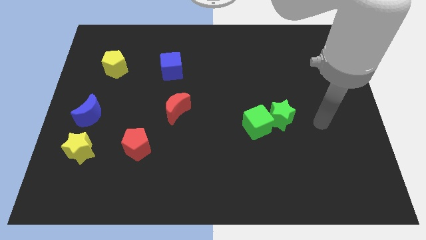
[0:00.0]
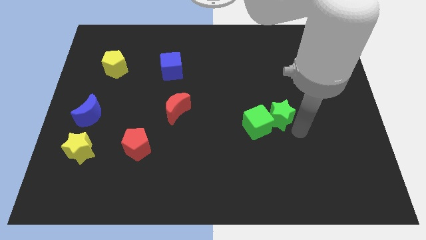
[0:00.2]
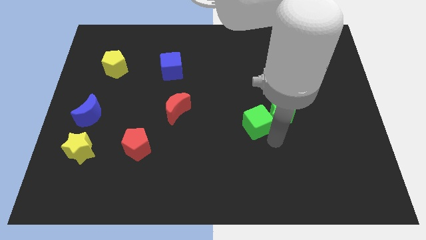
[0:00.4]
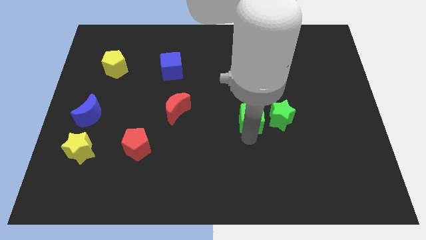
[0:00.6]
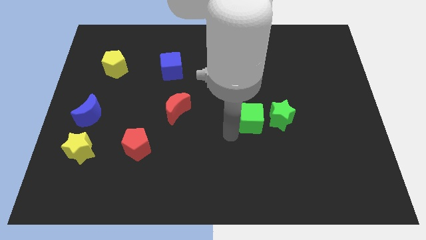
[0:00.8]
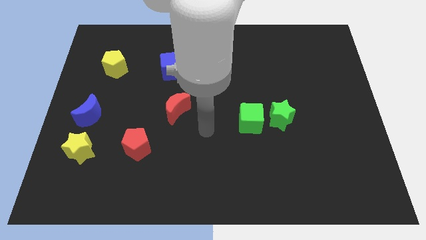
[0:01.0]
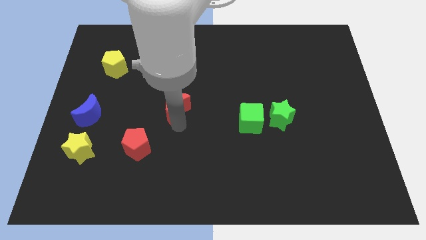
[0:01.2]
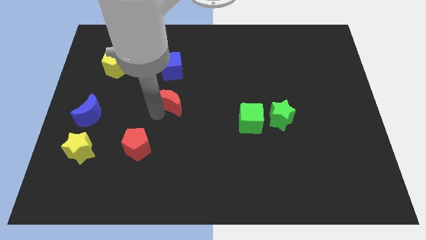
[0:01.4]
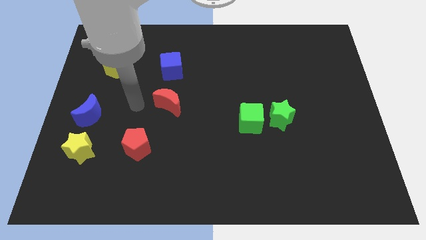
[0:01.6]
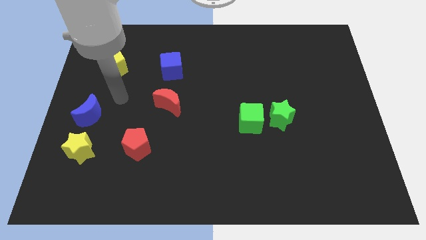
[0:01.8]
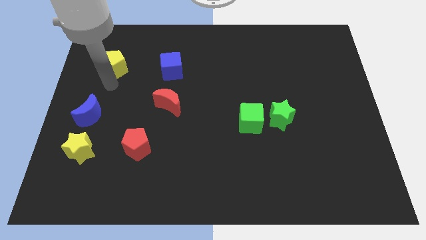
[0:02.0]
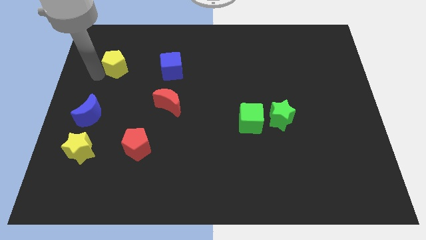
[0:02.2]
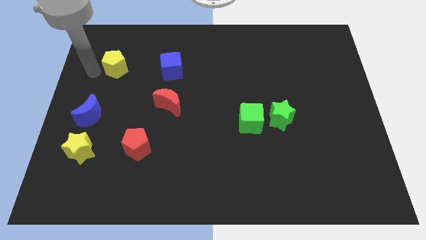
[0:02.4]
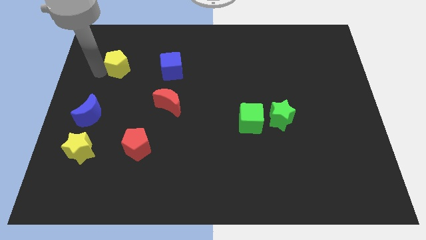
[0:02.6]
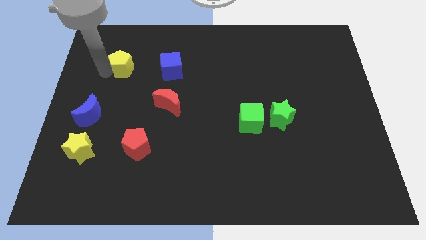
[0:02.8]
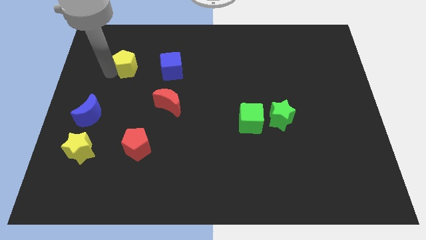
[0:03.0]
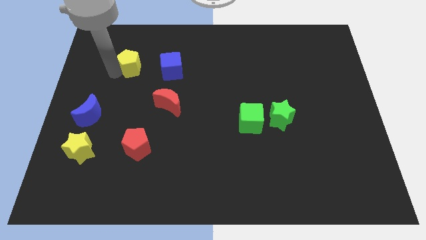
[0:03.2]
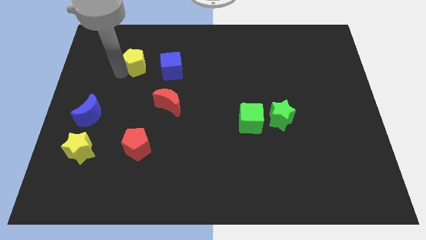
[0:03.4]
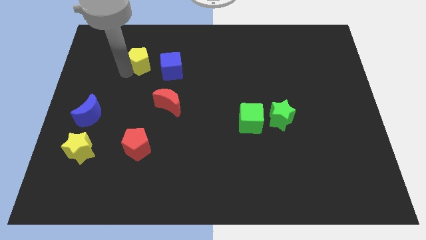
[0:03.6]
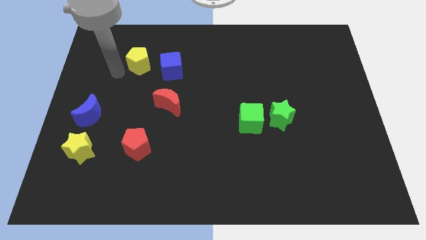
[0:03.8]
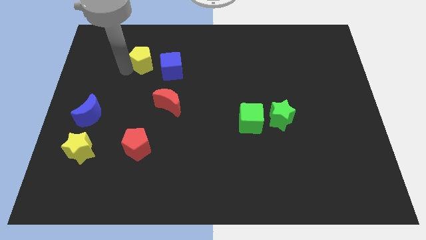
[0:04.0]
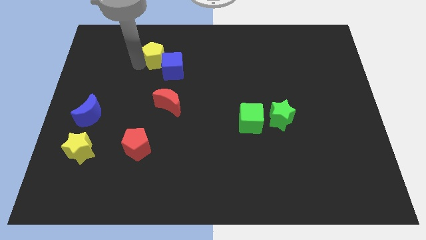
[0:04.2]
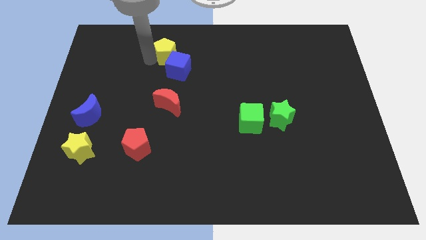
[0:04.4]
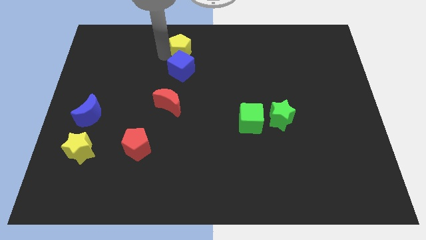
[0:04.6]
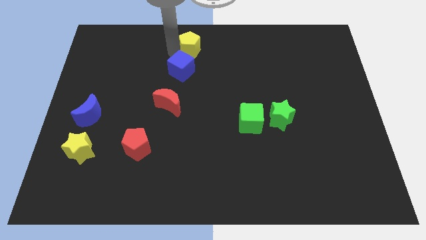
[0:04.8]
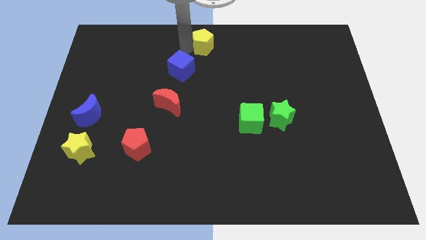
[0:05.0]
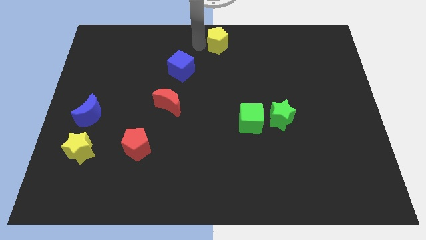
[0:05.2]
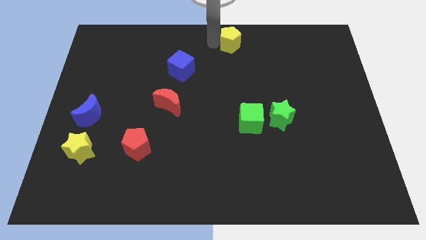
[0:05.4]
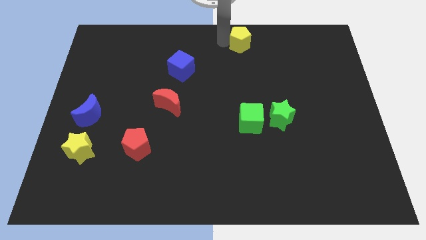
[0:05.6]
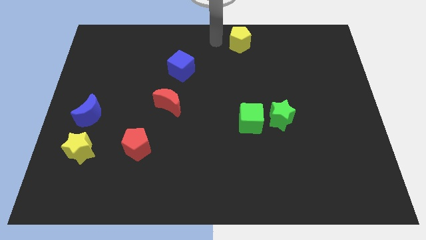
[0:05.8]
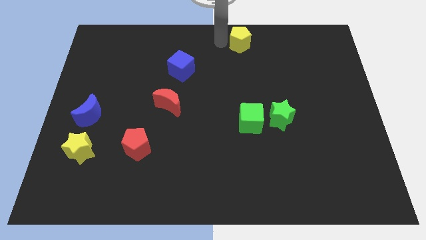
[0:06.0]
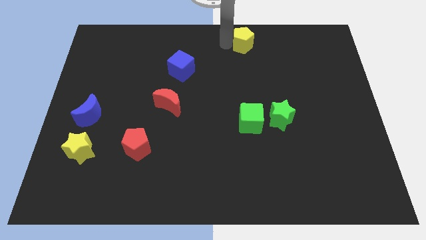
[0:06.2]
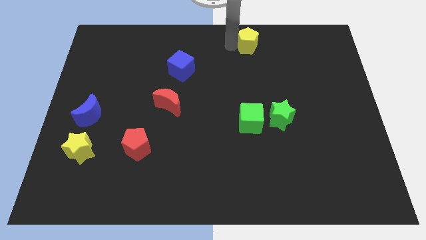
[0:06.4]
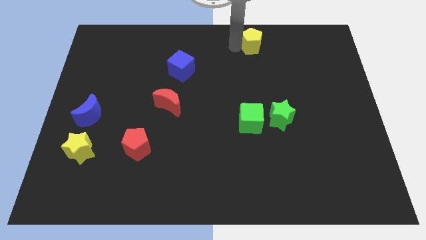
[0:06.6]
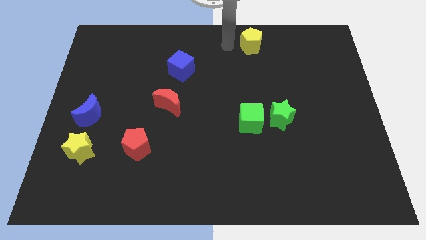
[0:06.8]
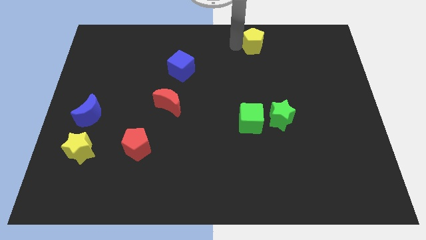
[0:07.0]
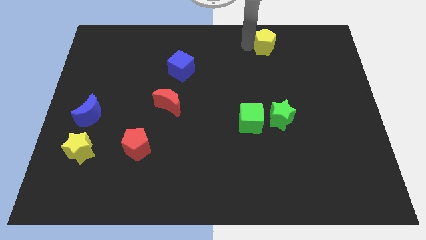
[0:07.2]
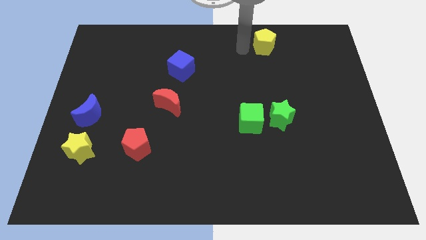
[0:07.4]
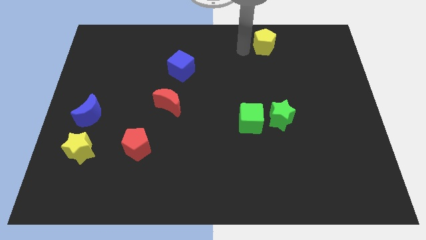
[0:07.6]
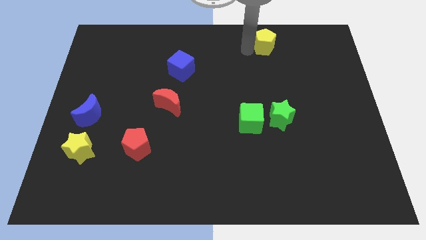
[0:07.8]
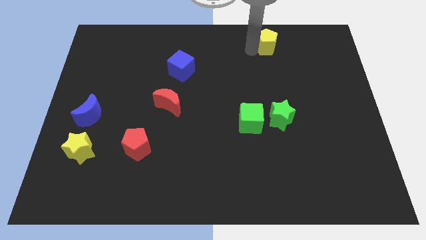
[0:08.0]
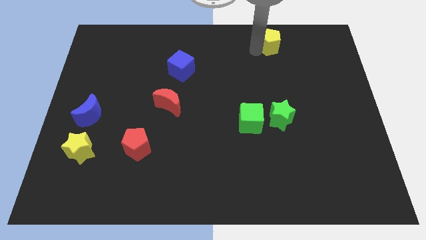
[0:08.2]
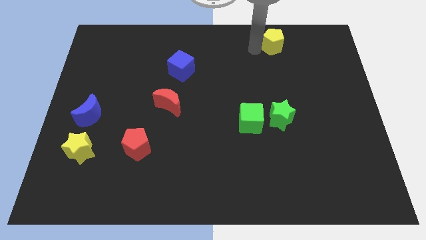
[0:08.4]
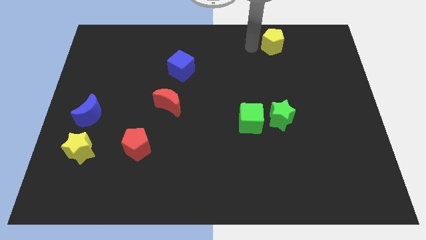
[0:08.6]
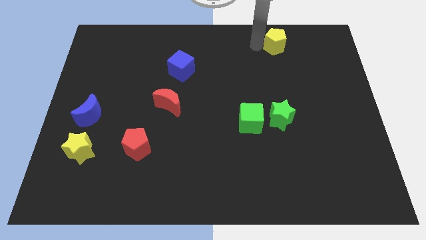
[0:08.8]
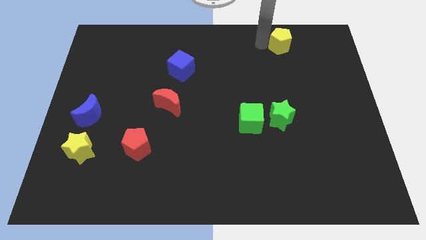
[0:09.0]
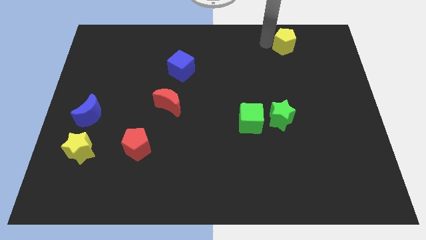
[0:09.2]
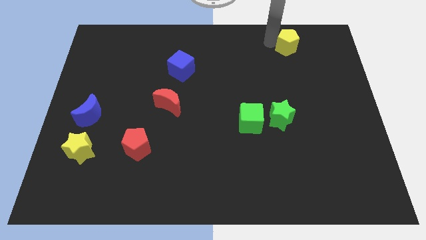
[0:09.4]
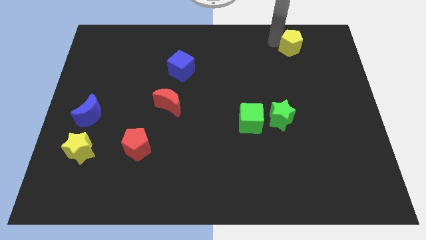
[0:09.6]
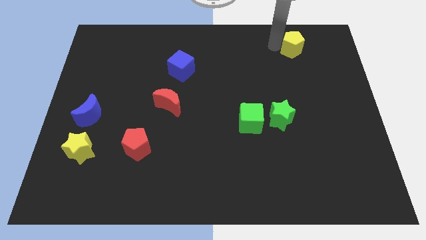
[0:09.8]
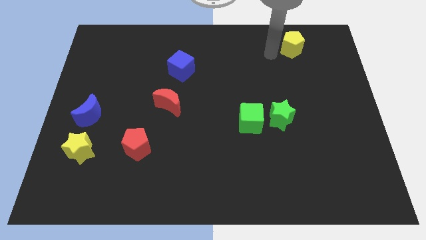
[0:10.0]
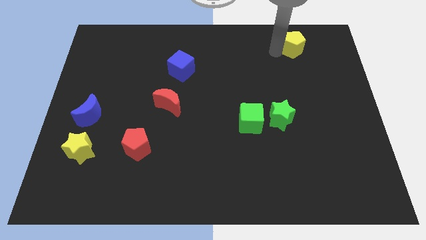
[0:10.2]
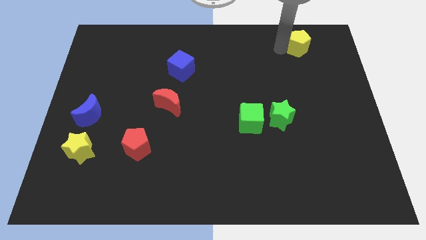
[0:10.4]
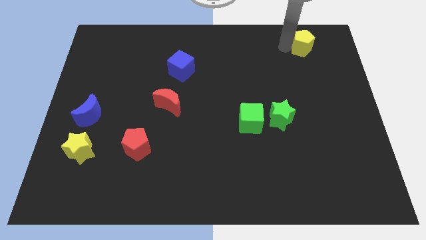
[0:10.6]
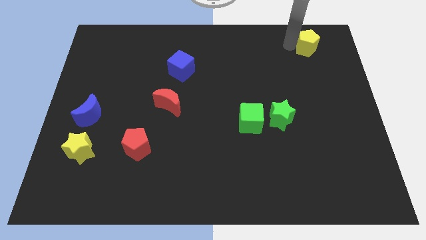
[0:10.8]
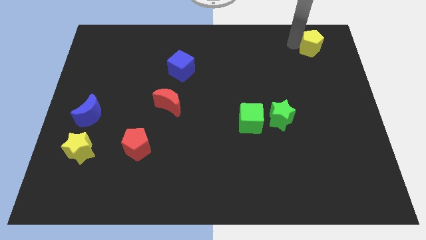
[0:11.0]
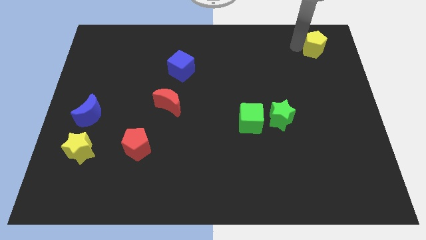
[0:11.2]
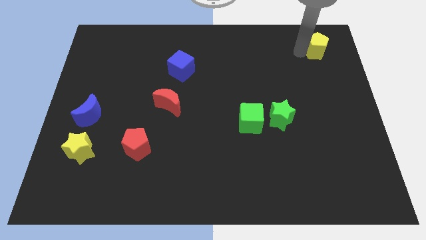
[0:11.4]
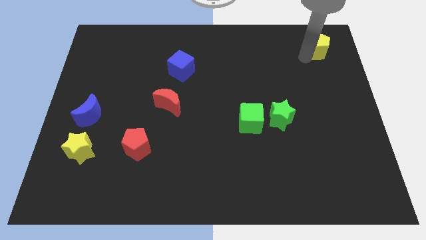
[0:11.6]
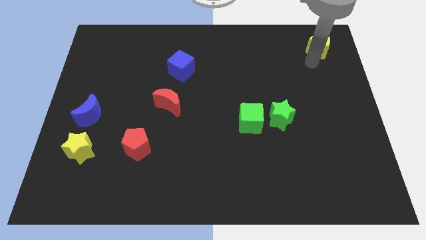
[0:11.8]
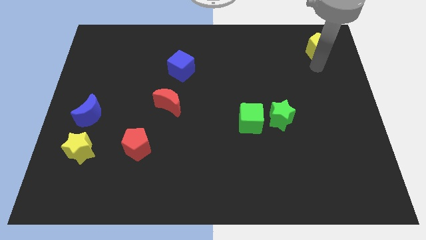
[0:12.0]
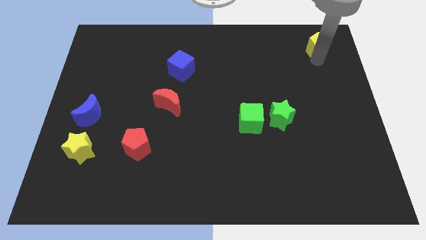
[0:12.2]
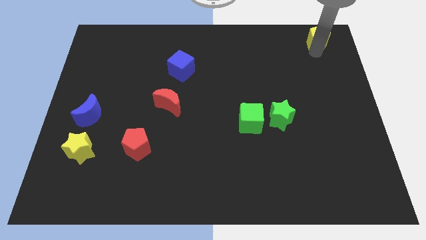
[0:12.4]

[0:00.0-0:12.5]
put the yellow pentagon to the top right of the board

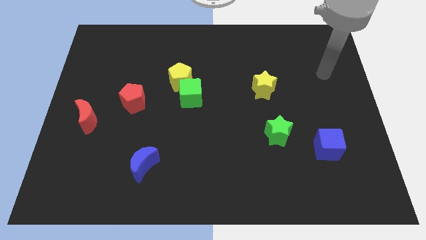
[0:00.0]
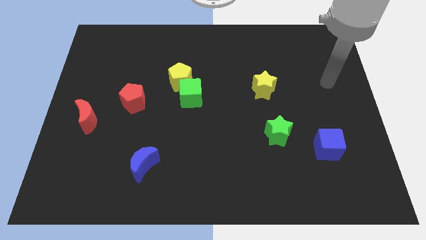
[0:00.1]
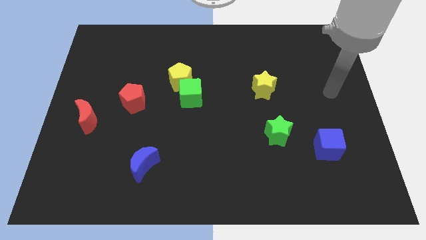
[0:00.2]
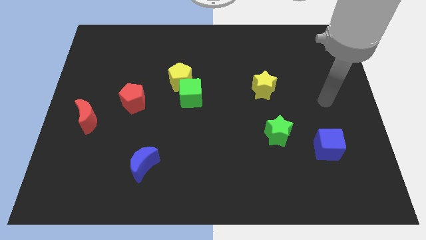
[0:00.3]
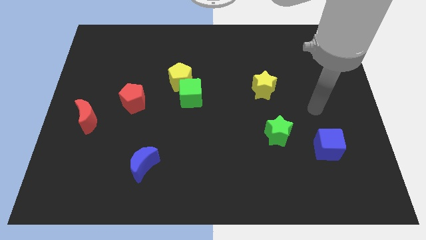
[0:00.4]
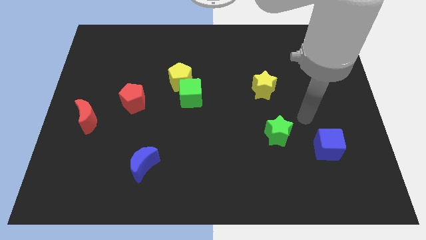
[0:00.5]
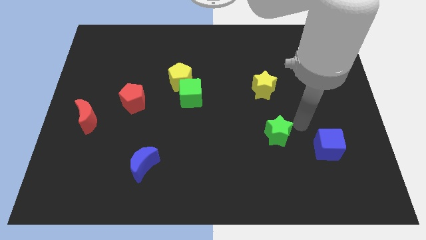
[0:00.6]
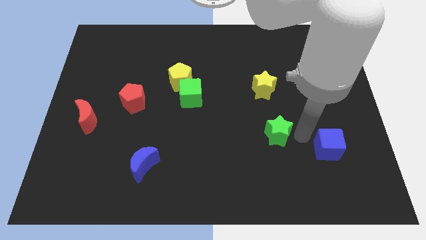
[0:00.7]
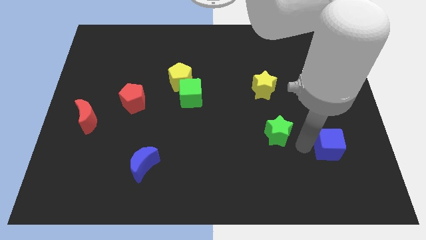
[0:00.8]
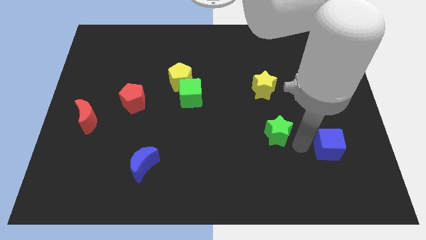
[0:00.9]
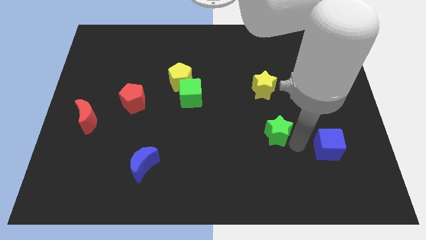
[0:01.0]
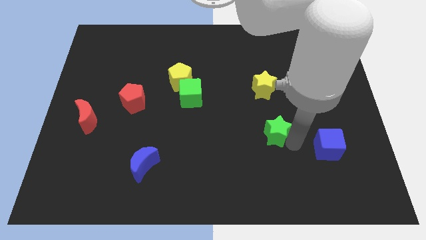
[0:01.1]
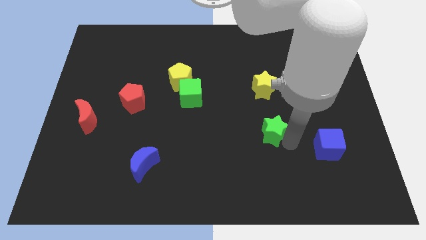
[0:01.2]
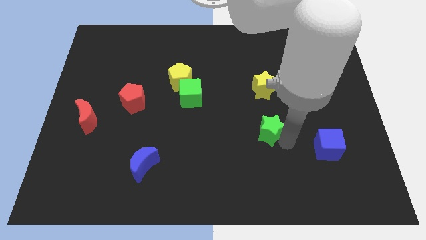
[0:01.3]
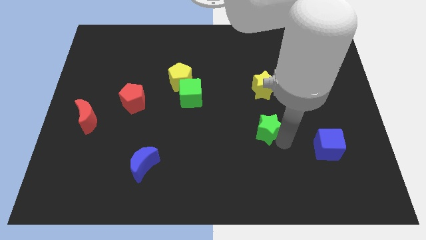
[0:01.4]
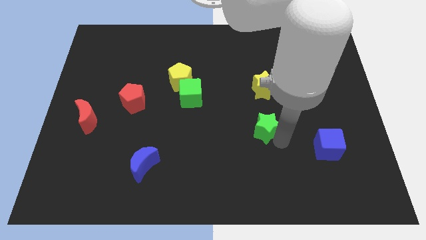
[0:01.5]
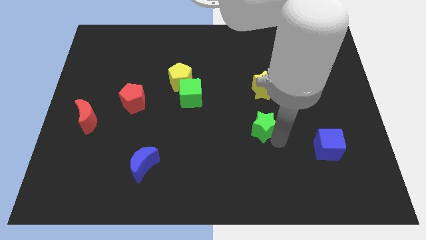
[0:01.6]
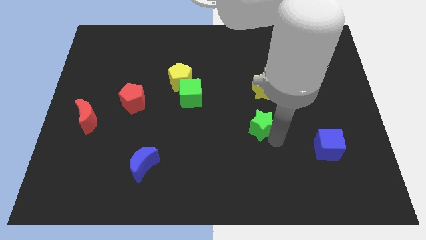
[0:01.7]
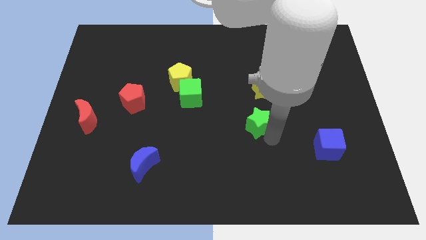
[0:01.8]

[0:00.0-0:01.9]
push the green star to the middle of the board
